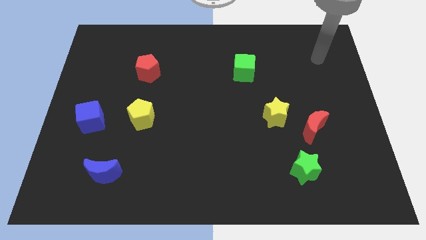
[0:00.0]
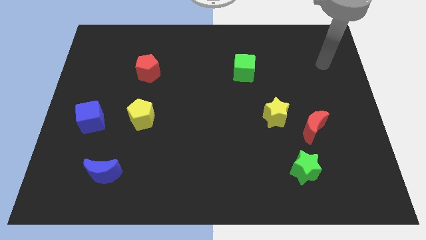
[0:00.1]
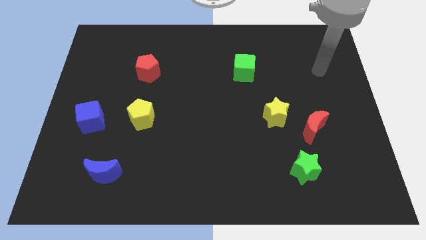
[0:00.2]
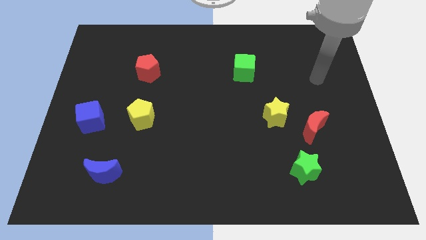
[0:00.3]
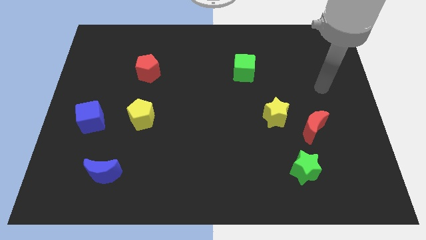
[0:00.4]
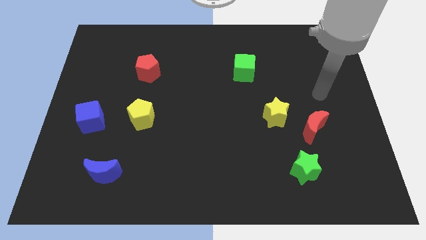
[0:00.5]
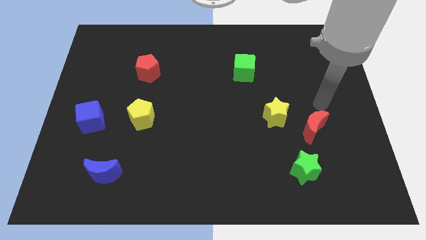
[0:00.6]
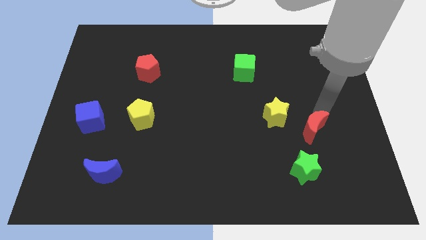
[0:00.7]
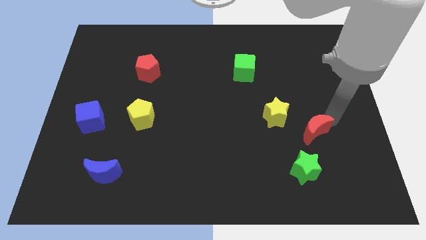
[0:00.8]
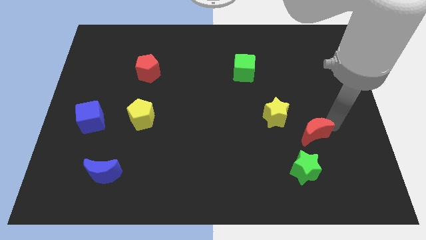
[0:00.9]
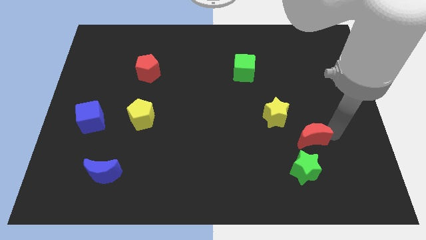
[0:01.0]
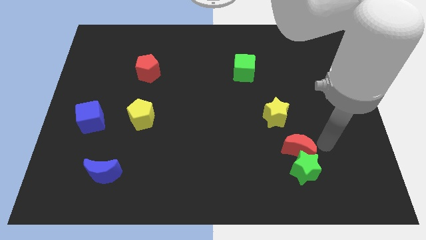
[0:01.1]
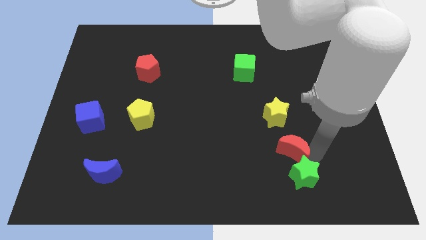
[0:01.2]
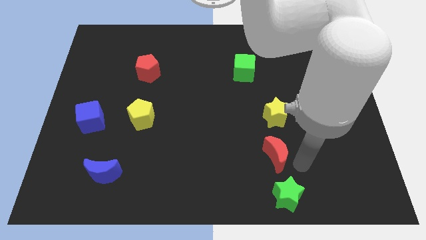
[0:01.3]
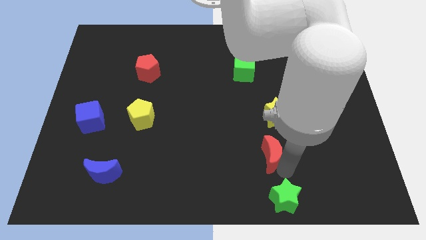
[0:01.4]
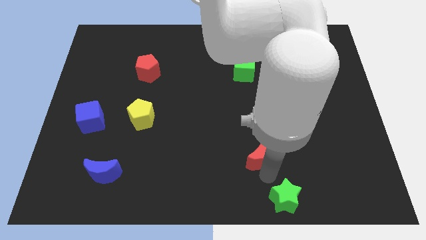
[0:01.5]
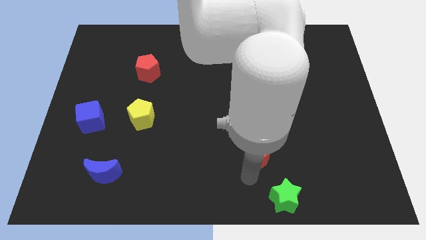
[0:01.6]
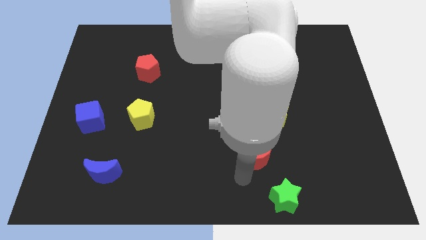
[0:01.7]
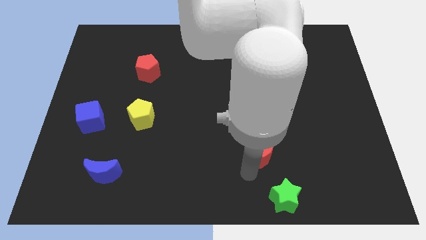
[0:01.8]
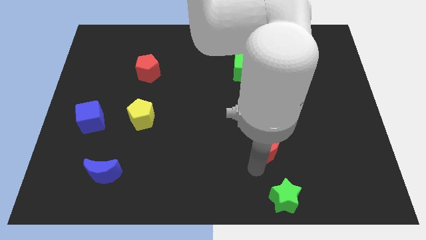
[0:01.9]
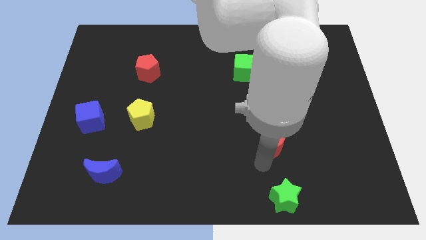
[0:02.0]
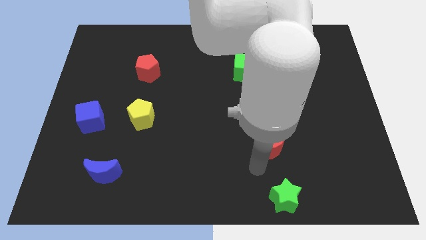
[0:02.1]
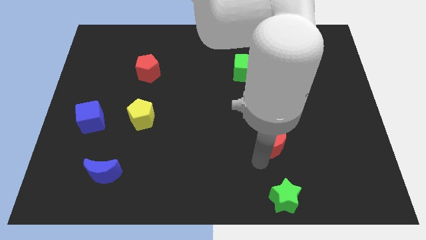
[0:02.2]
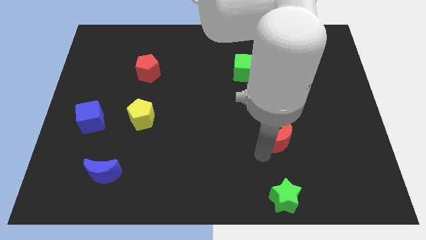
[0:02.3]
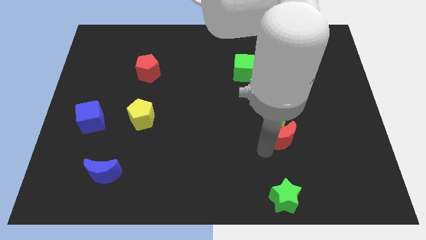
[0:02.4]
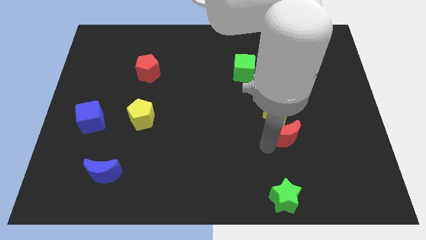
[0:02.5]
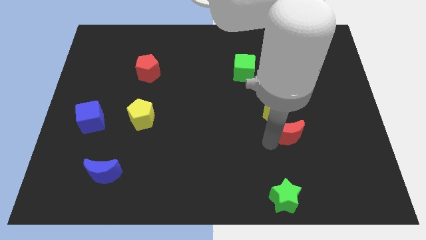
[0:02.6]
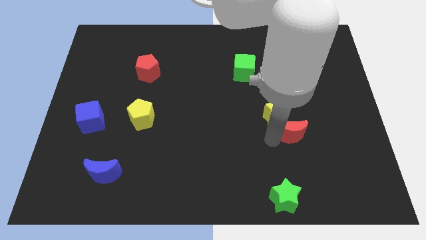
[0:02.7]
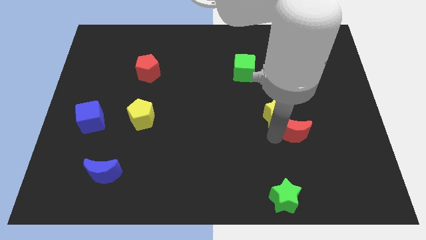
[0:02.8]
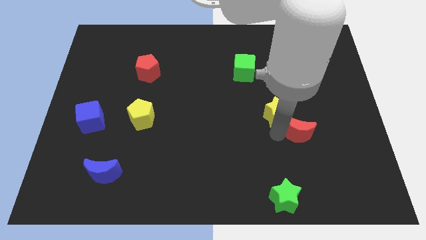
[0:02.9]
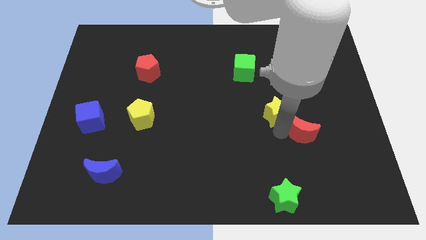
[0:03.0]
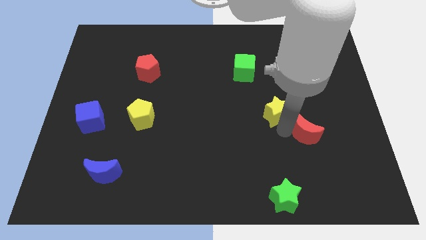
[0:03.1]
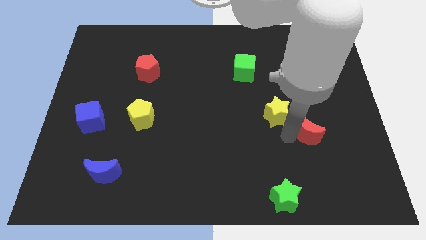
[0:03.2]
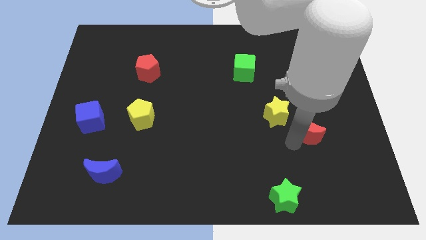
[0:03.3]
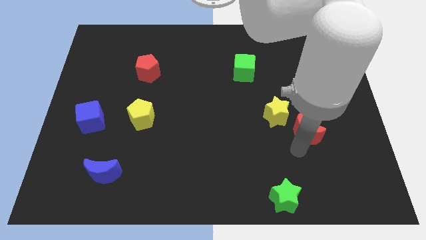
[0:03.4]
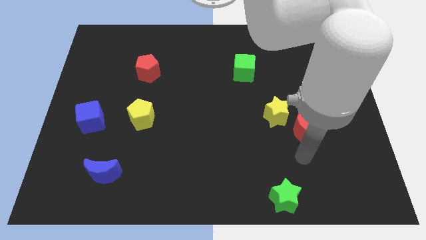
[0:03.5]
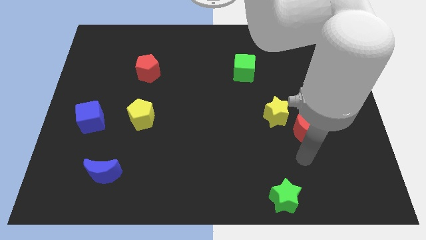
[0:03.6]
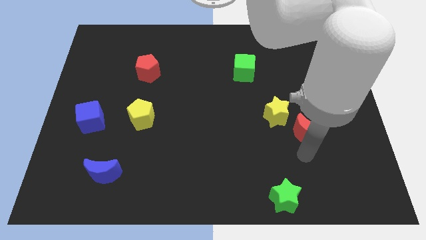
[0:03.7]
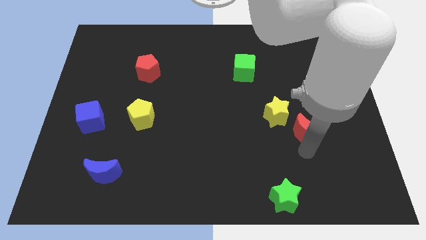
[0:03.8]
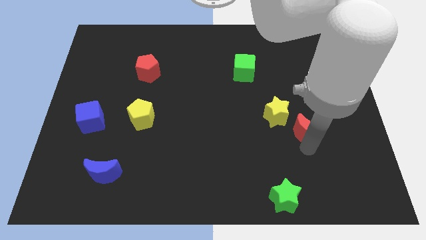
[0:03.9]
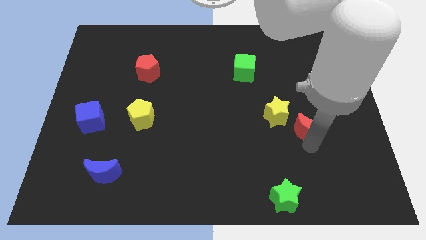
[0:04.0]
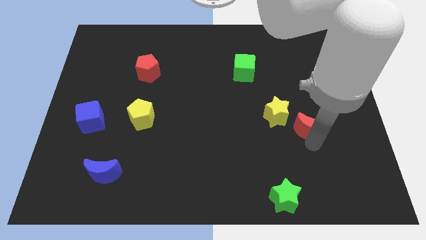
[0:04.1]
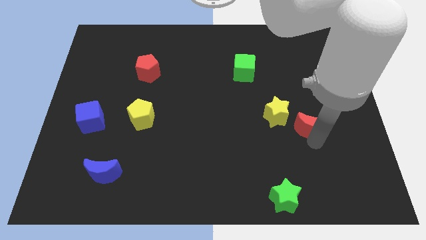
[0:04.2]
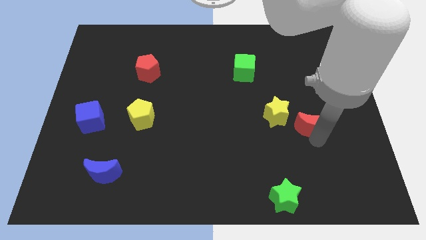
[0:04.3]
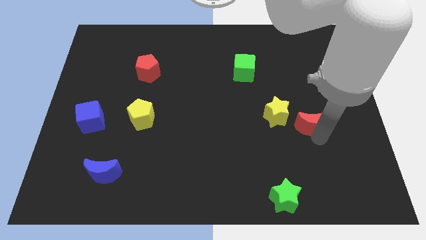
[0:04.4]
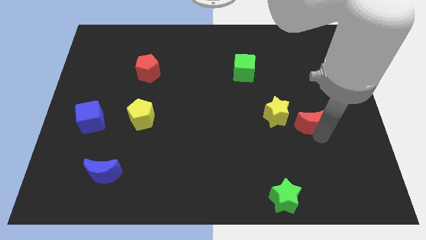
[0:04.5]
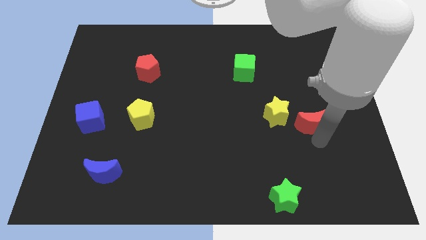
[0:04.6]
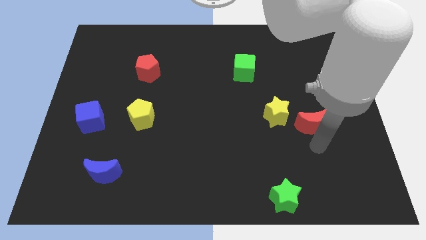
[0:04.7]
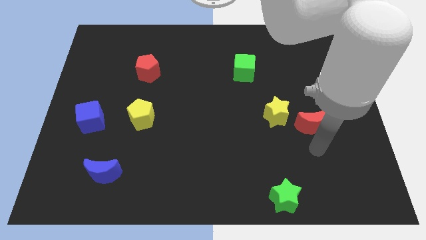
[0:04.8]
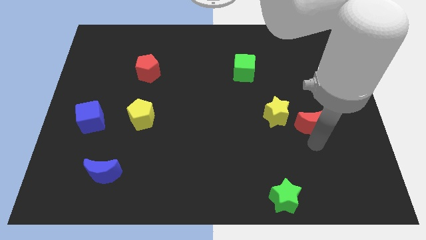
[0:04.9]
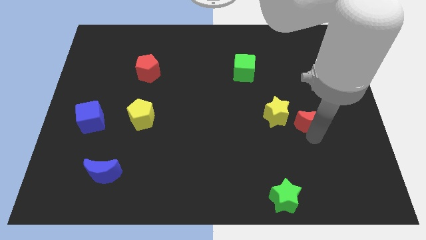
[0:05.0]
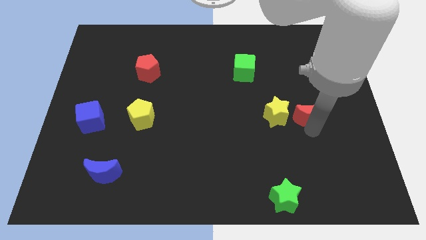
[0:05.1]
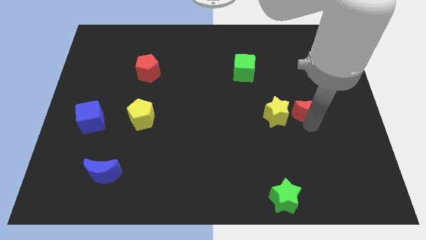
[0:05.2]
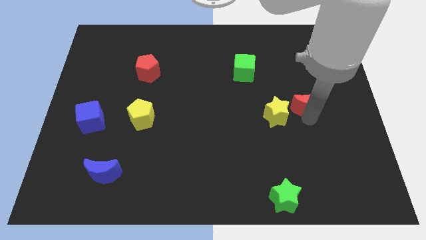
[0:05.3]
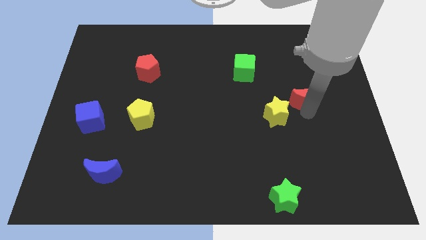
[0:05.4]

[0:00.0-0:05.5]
slightly push the red moon upwards

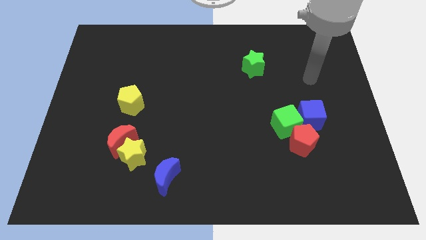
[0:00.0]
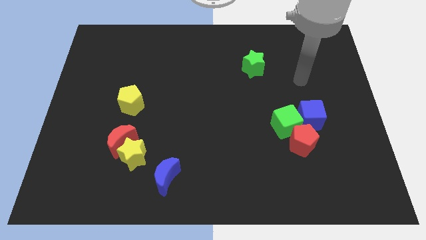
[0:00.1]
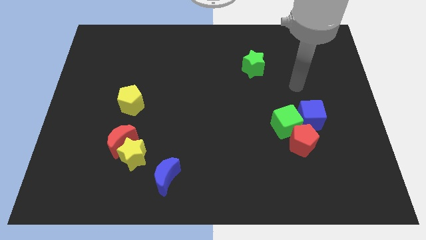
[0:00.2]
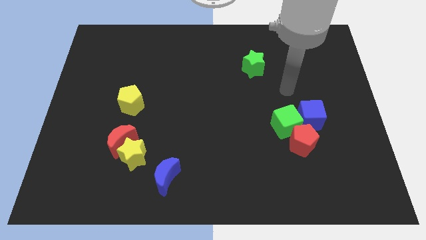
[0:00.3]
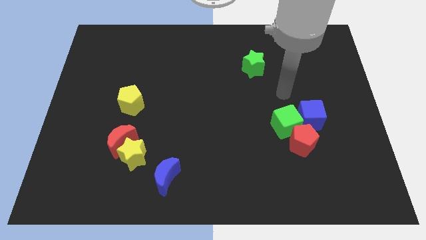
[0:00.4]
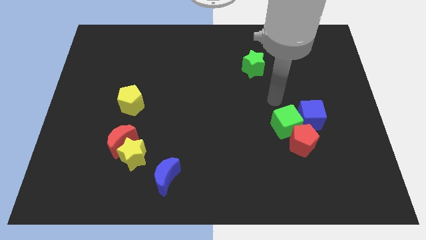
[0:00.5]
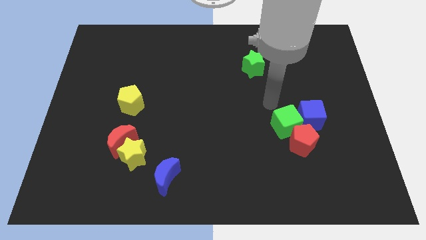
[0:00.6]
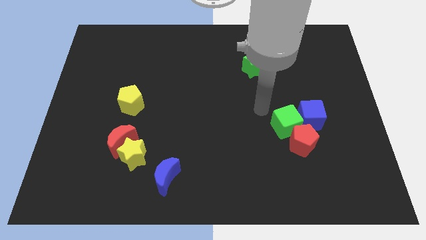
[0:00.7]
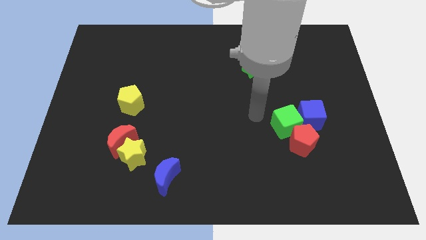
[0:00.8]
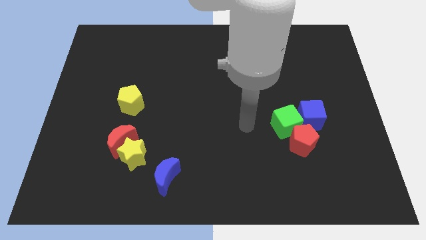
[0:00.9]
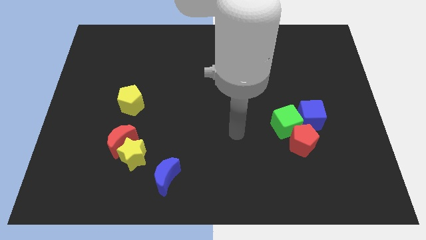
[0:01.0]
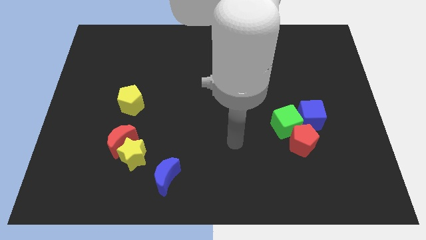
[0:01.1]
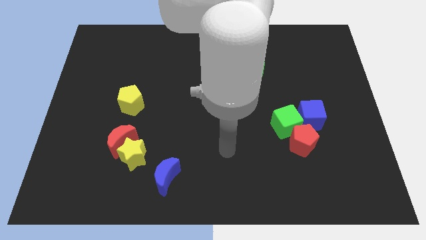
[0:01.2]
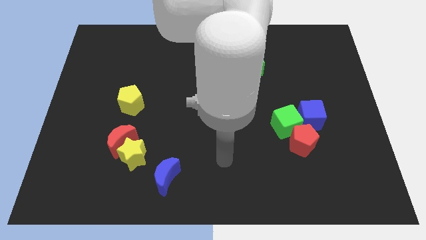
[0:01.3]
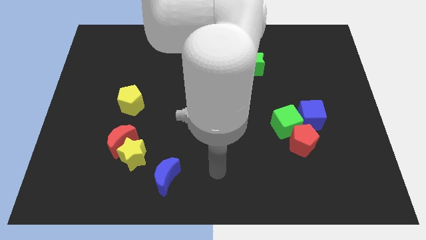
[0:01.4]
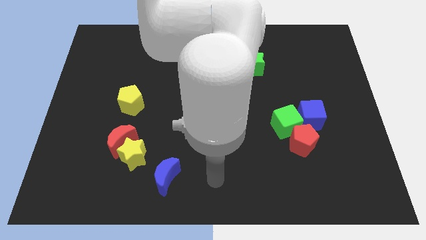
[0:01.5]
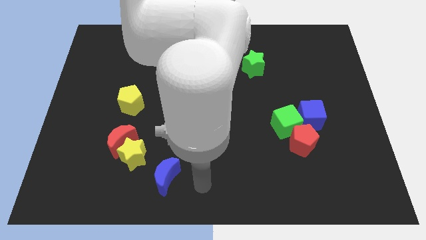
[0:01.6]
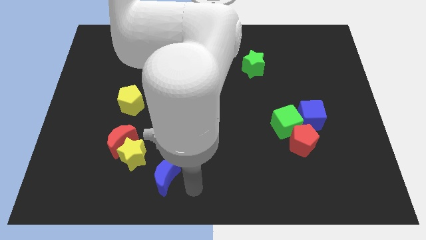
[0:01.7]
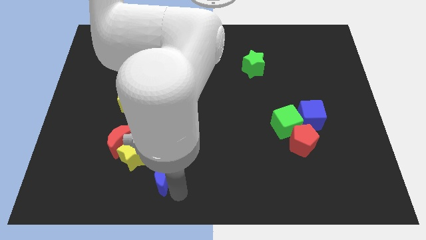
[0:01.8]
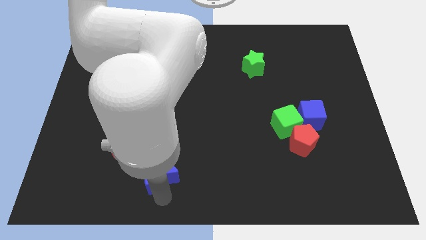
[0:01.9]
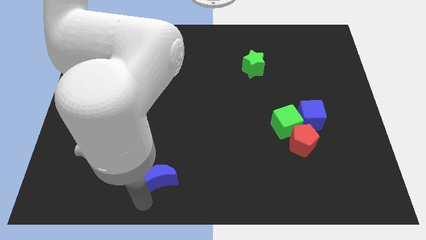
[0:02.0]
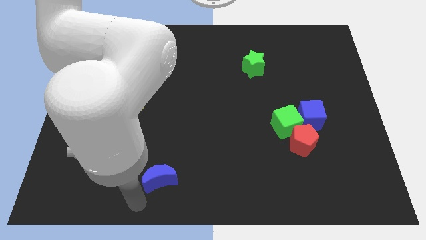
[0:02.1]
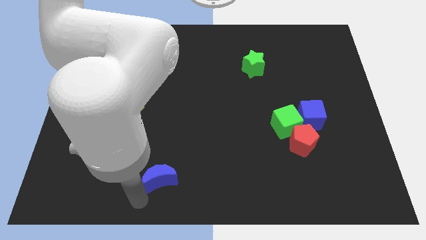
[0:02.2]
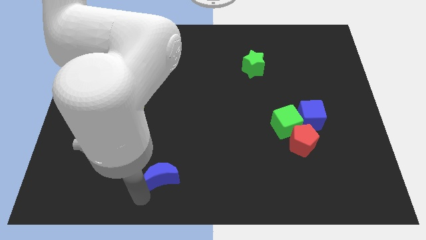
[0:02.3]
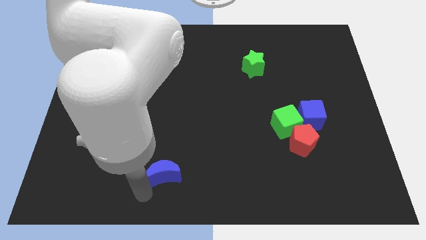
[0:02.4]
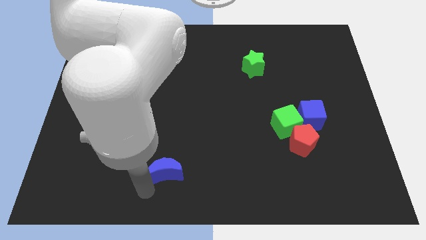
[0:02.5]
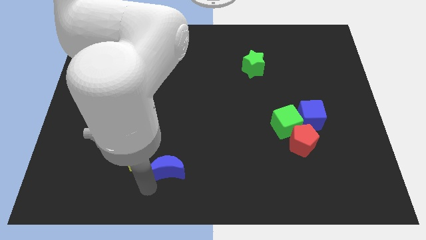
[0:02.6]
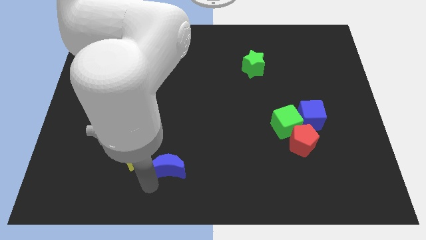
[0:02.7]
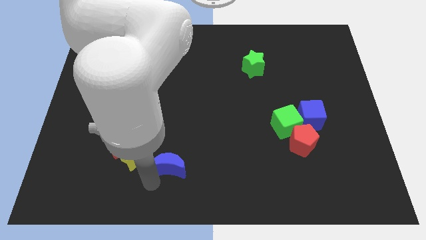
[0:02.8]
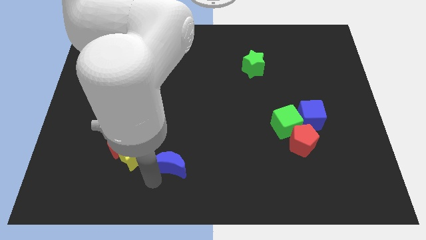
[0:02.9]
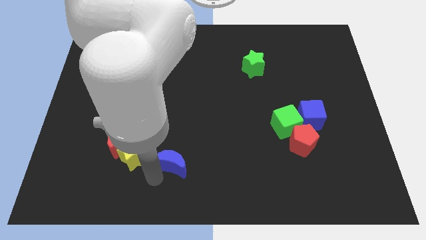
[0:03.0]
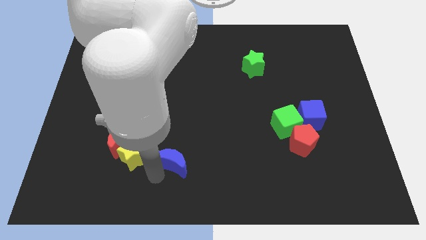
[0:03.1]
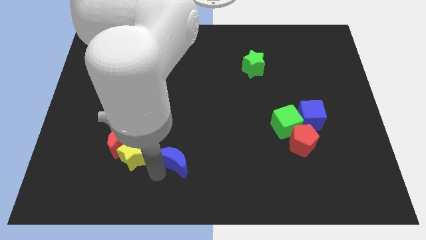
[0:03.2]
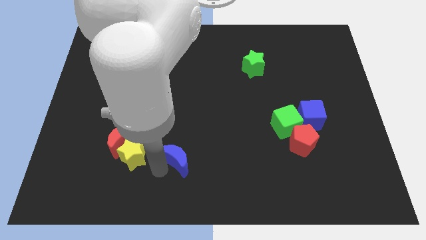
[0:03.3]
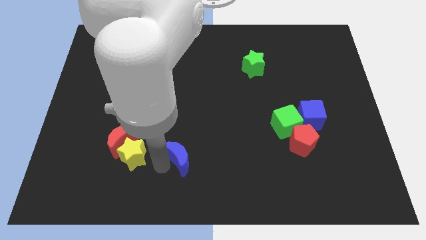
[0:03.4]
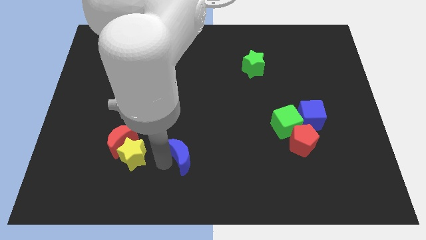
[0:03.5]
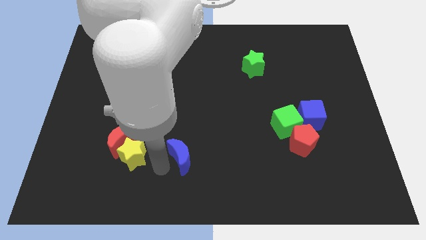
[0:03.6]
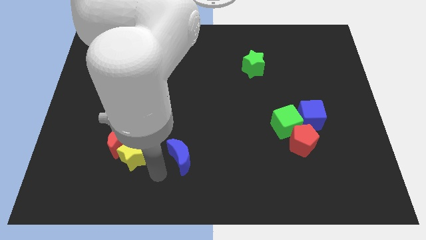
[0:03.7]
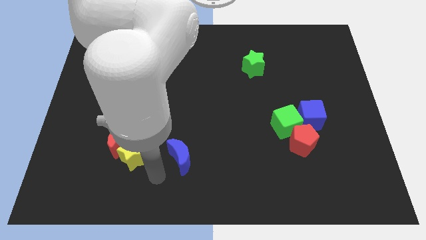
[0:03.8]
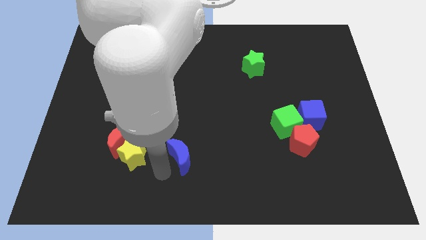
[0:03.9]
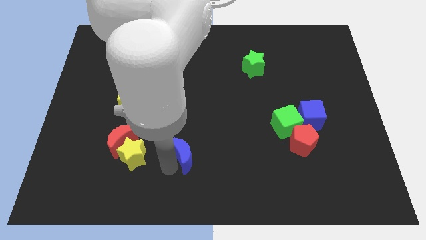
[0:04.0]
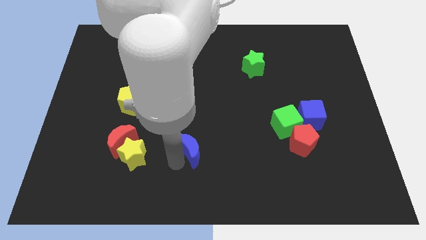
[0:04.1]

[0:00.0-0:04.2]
move the blue moon a little up and to the right diagonally
